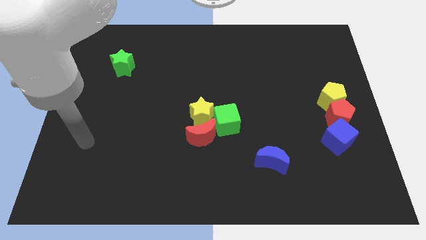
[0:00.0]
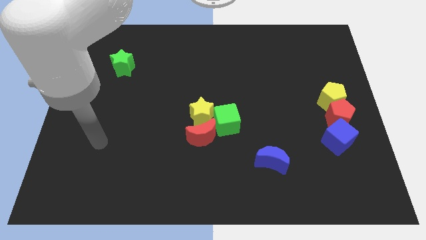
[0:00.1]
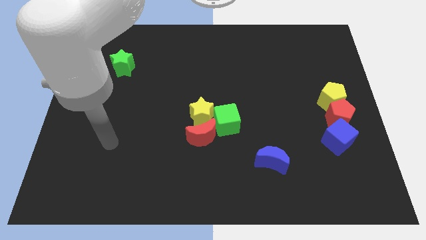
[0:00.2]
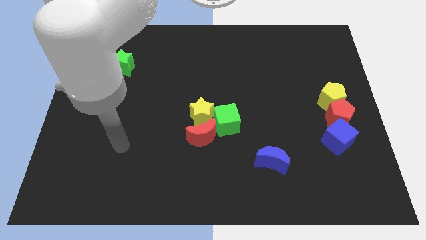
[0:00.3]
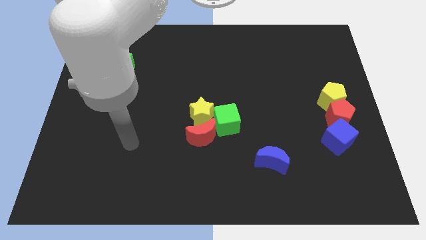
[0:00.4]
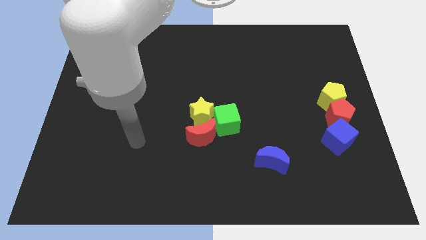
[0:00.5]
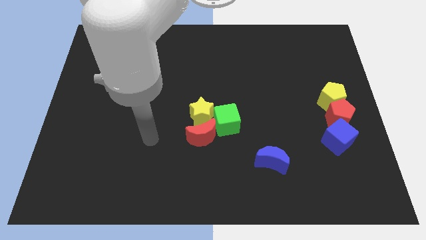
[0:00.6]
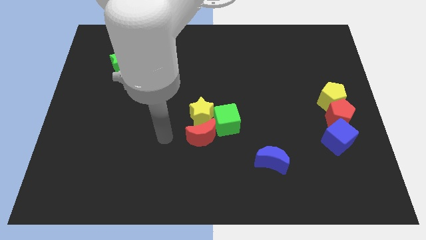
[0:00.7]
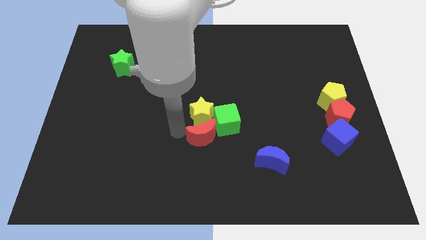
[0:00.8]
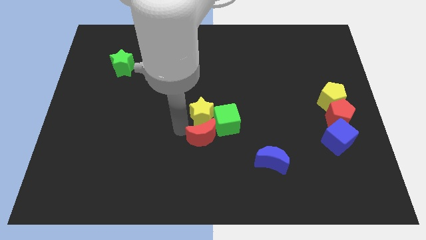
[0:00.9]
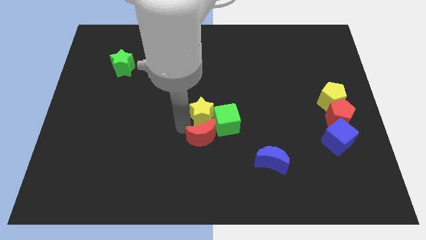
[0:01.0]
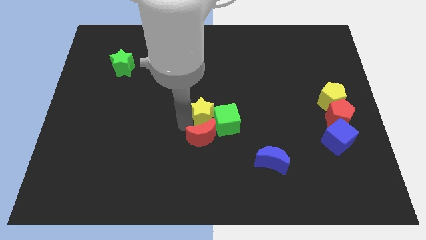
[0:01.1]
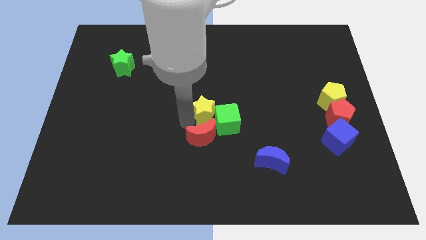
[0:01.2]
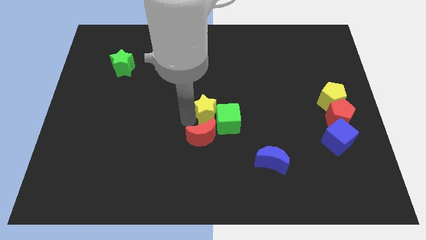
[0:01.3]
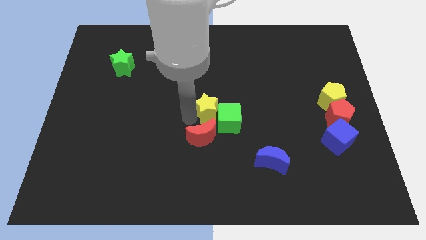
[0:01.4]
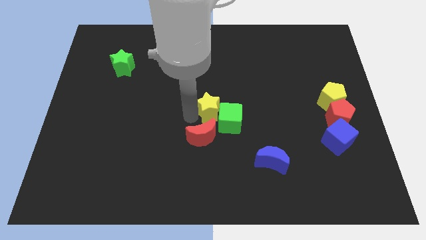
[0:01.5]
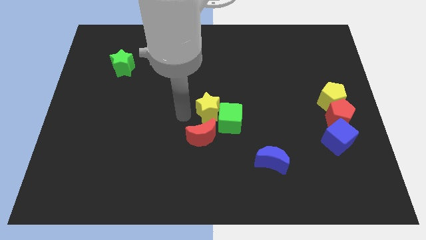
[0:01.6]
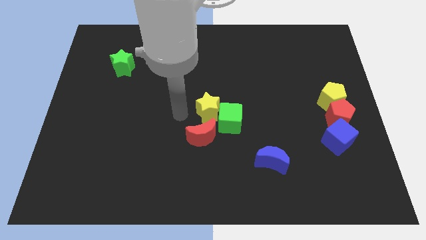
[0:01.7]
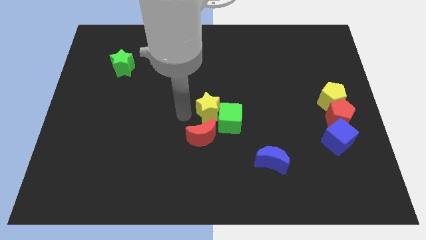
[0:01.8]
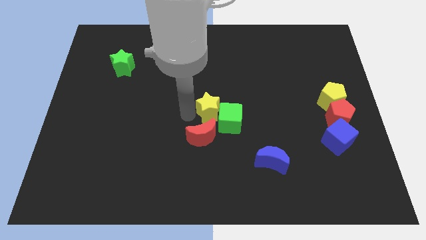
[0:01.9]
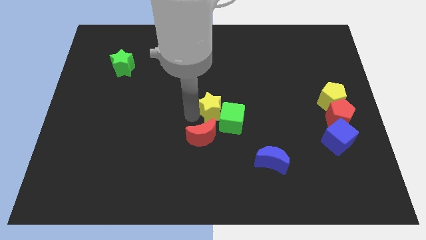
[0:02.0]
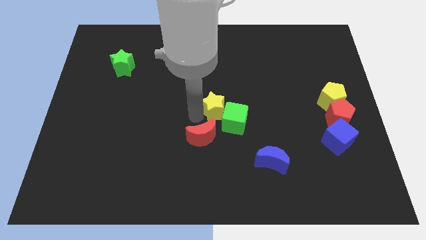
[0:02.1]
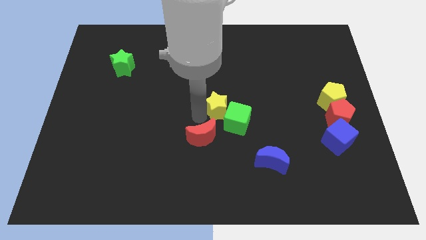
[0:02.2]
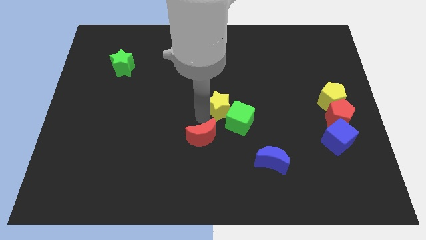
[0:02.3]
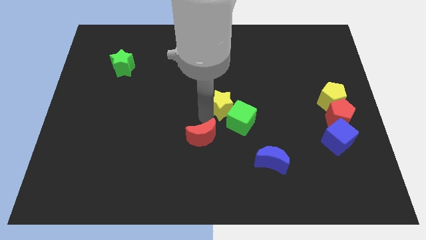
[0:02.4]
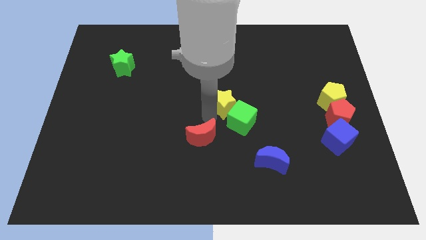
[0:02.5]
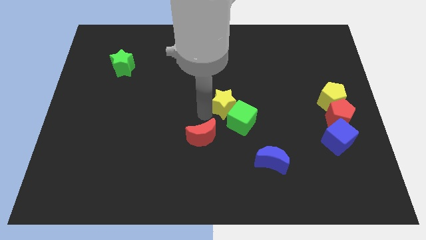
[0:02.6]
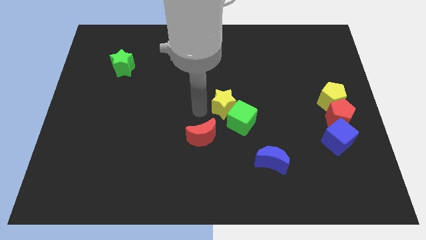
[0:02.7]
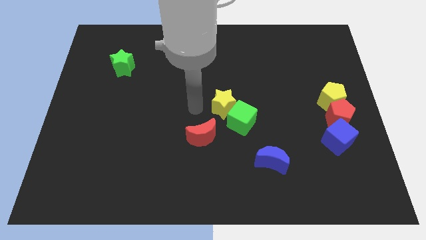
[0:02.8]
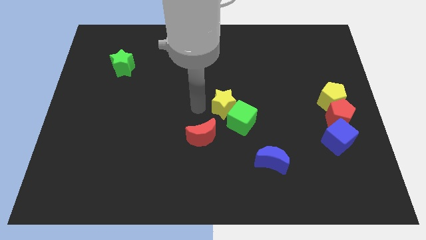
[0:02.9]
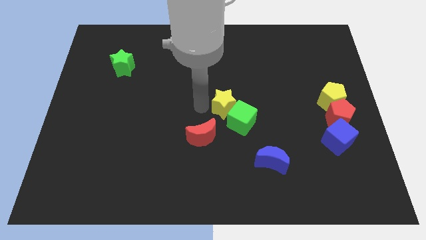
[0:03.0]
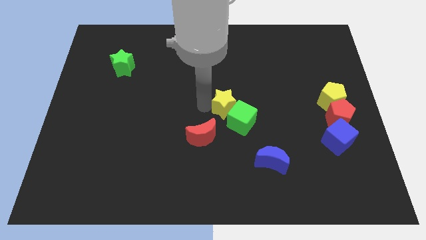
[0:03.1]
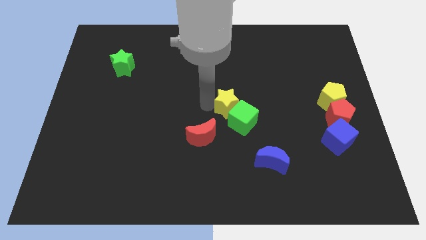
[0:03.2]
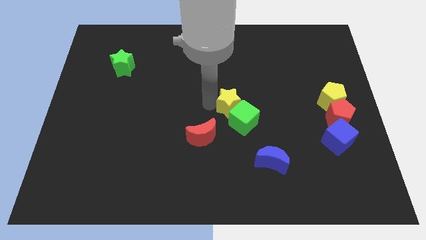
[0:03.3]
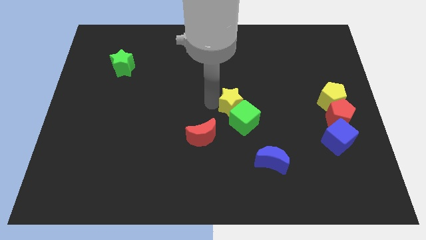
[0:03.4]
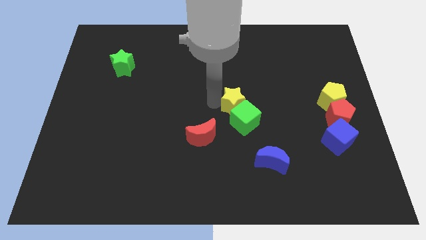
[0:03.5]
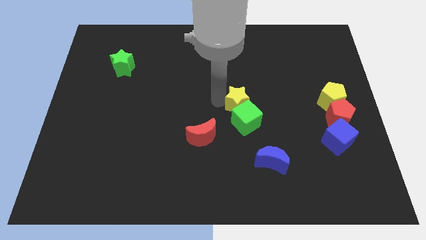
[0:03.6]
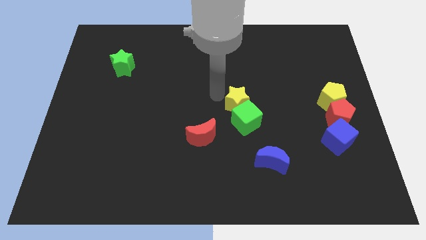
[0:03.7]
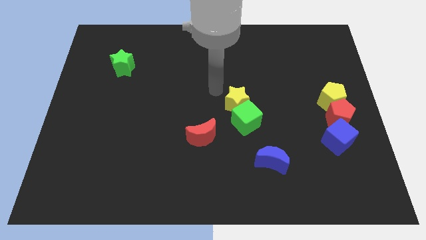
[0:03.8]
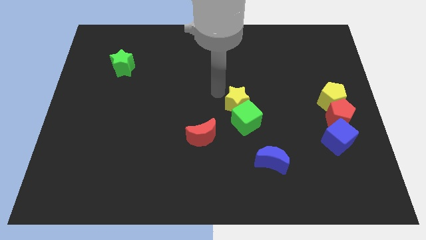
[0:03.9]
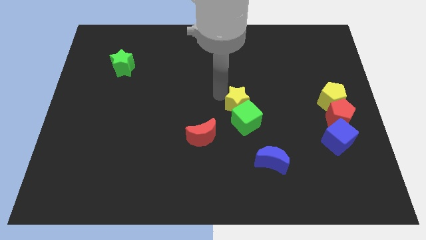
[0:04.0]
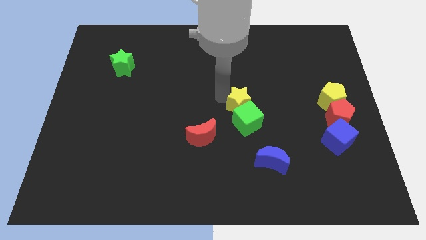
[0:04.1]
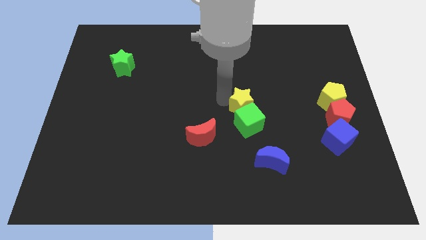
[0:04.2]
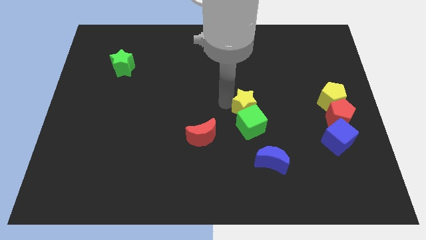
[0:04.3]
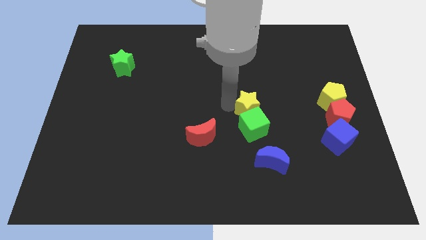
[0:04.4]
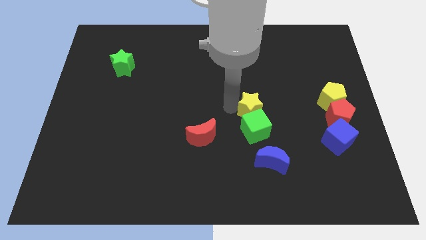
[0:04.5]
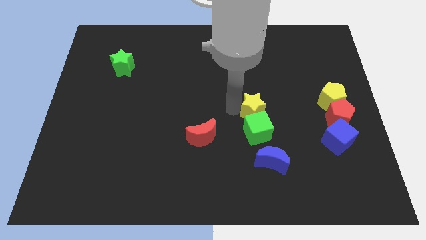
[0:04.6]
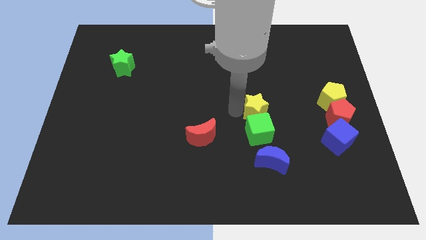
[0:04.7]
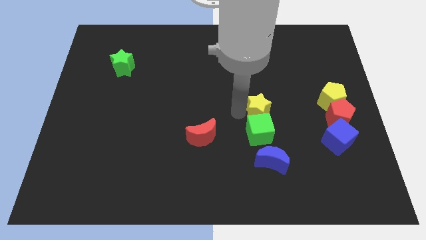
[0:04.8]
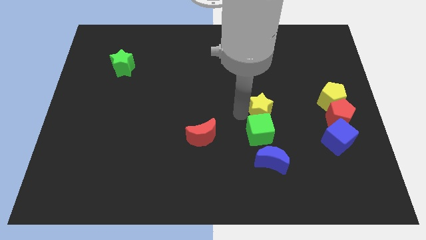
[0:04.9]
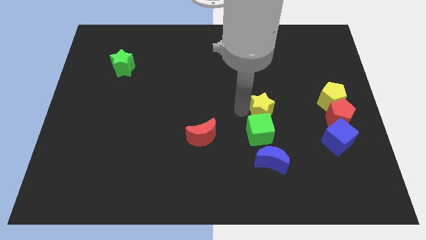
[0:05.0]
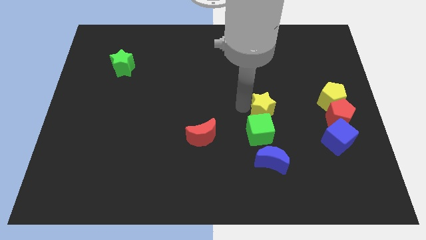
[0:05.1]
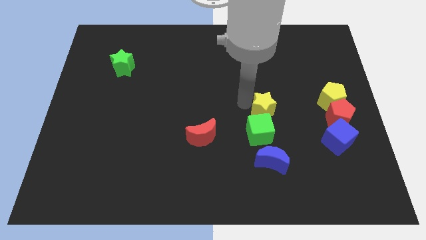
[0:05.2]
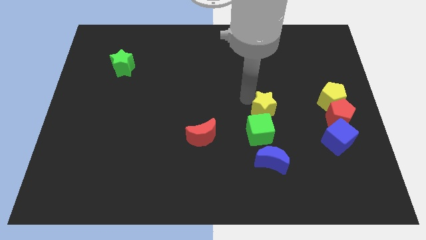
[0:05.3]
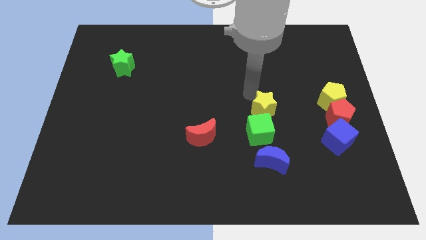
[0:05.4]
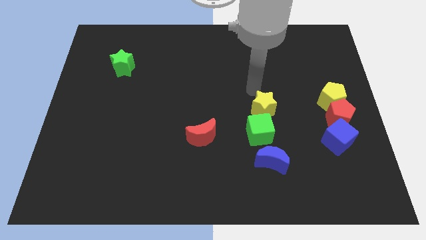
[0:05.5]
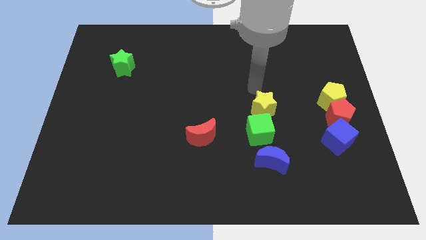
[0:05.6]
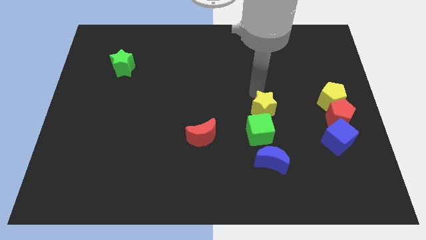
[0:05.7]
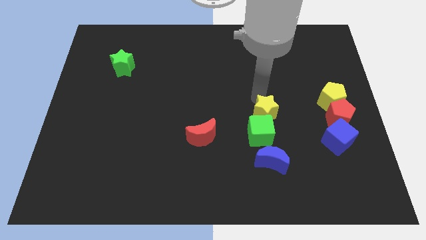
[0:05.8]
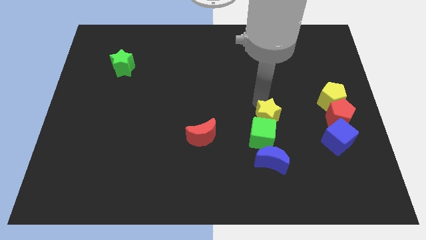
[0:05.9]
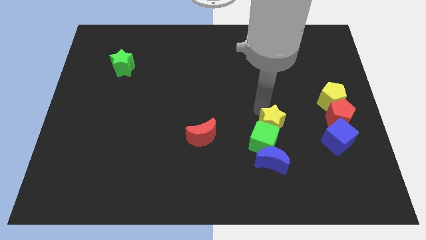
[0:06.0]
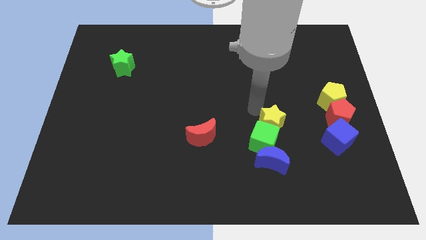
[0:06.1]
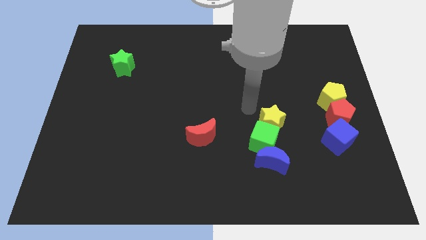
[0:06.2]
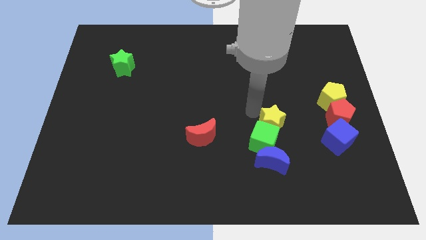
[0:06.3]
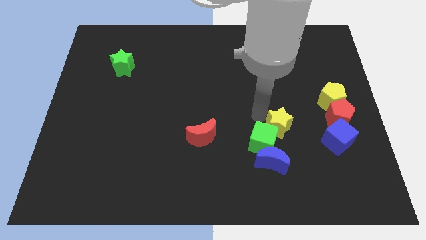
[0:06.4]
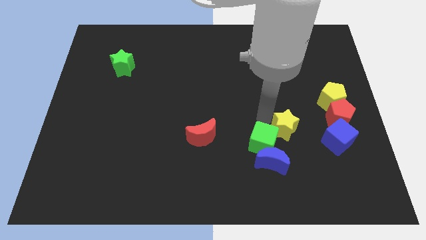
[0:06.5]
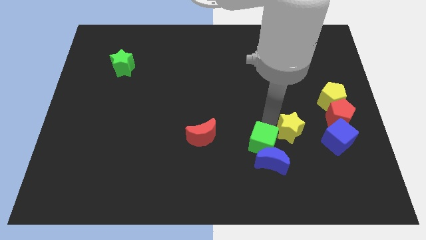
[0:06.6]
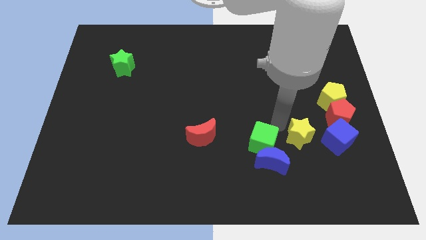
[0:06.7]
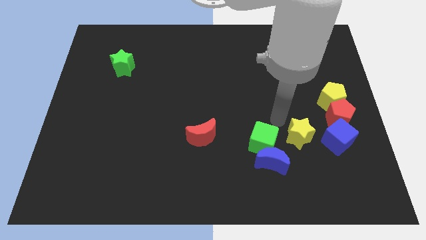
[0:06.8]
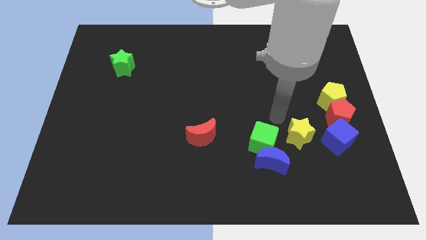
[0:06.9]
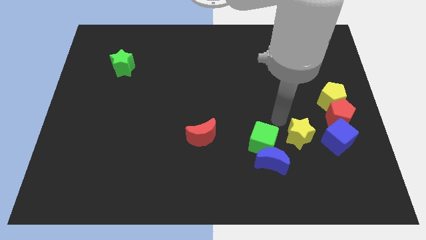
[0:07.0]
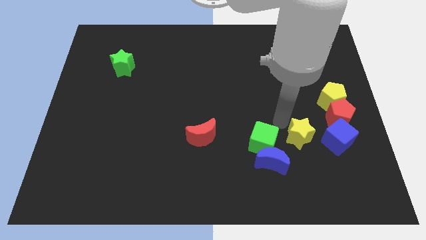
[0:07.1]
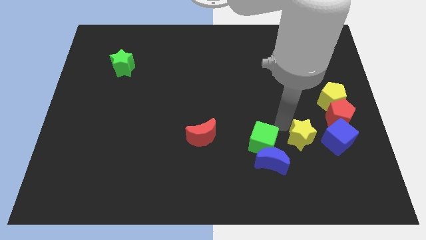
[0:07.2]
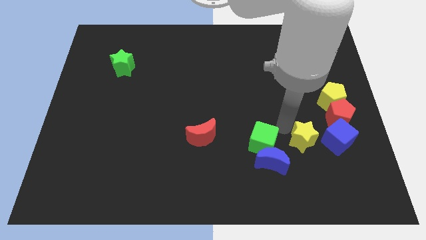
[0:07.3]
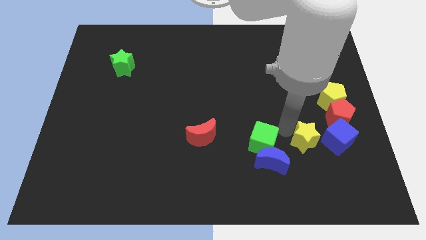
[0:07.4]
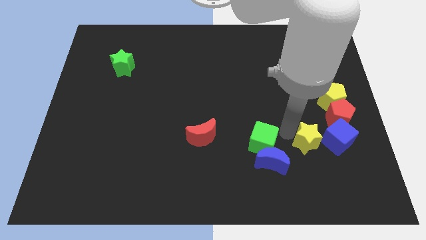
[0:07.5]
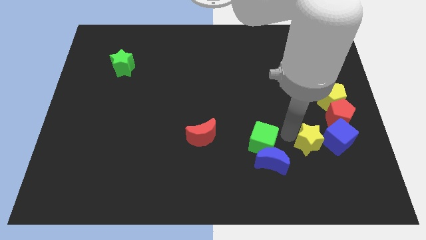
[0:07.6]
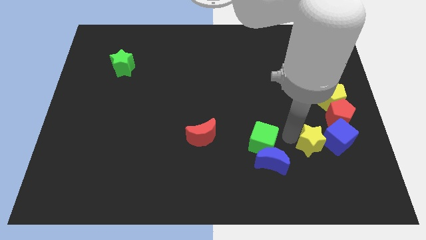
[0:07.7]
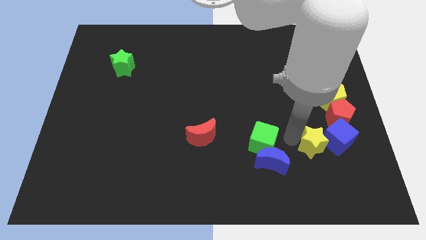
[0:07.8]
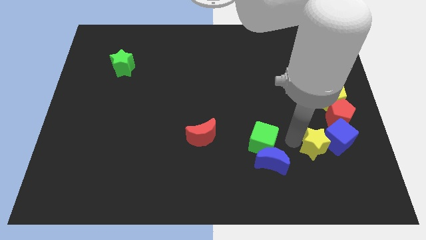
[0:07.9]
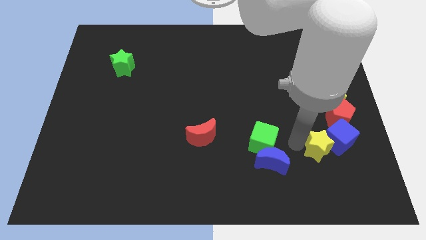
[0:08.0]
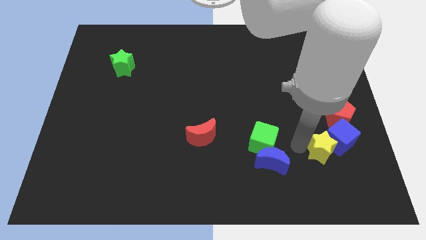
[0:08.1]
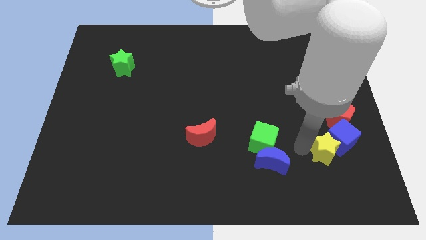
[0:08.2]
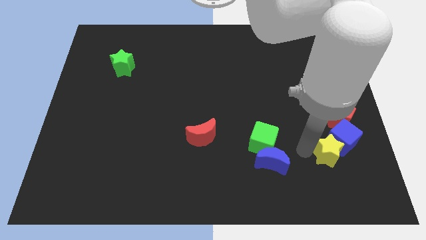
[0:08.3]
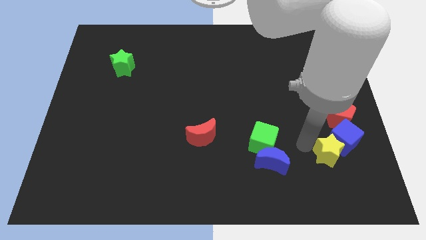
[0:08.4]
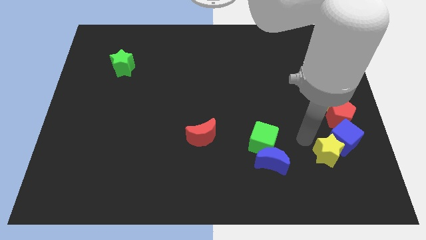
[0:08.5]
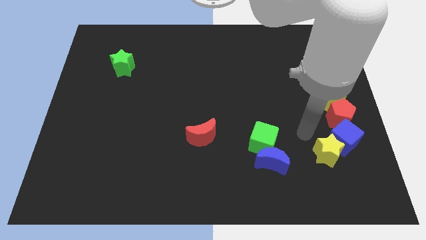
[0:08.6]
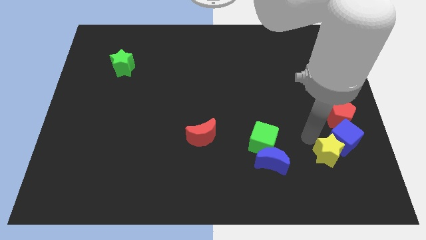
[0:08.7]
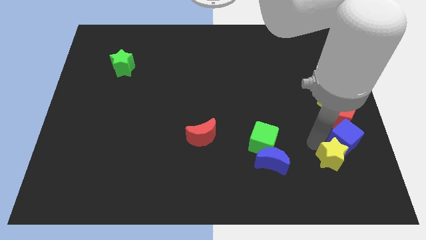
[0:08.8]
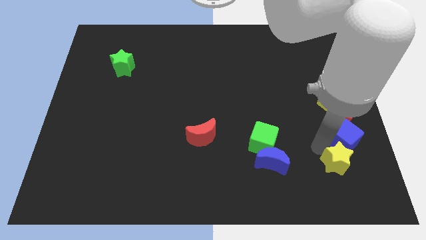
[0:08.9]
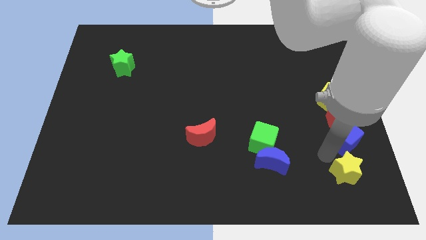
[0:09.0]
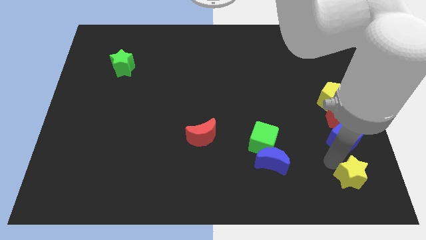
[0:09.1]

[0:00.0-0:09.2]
push the yellow star to the bottom right of the board
